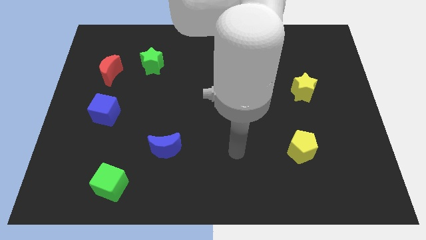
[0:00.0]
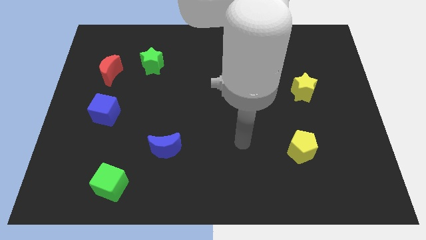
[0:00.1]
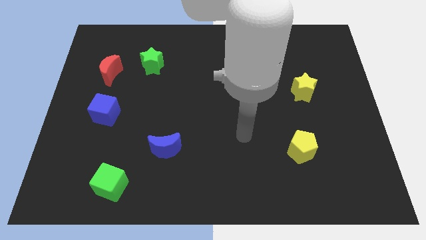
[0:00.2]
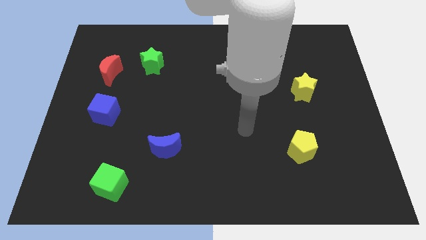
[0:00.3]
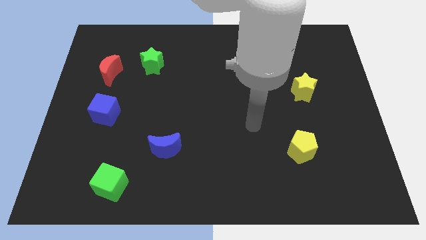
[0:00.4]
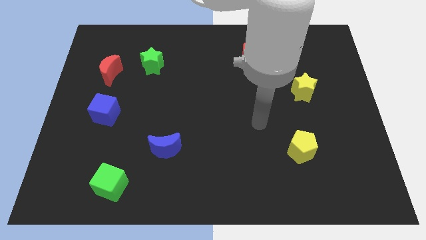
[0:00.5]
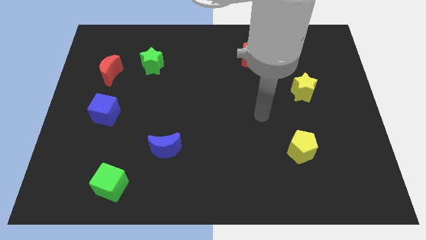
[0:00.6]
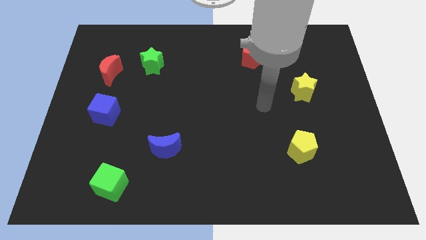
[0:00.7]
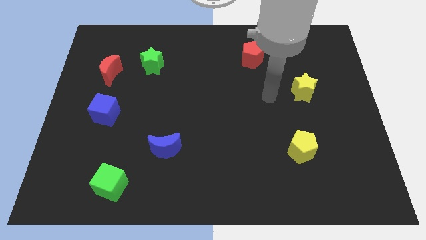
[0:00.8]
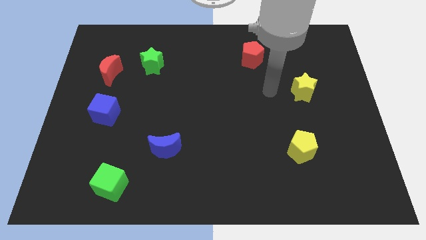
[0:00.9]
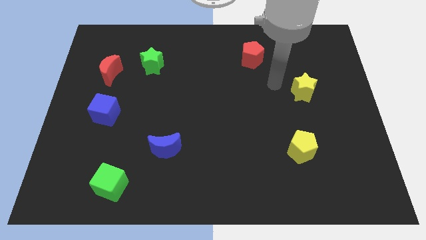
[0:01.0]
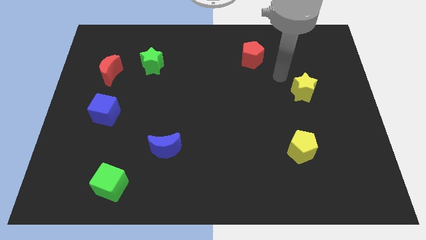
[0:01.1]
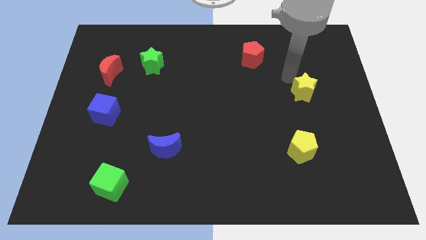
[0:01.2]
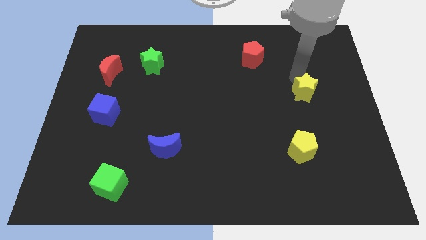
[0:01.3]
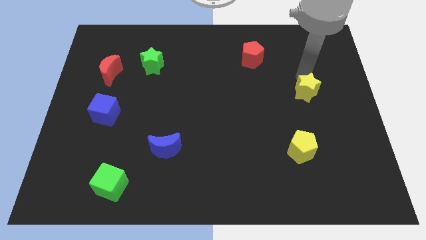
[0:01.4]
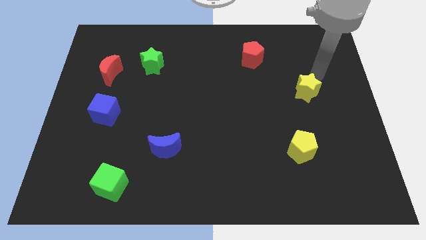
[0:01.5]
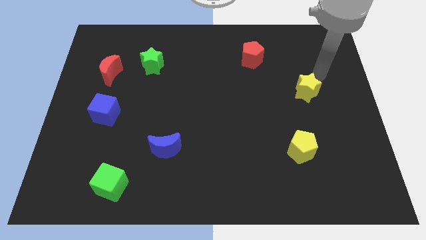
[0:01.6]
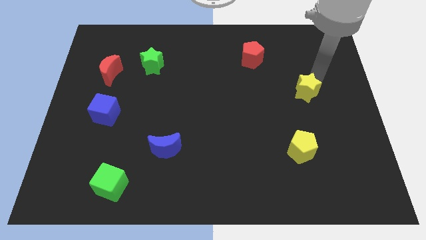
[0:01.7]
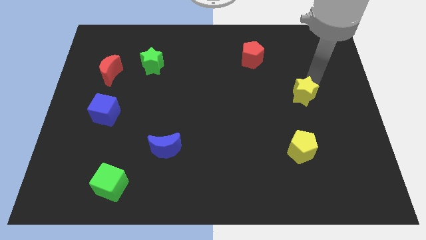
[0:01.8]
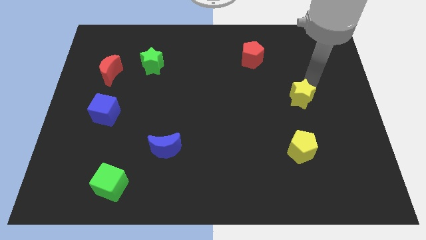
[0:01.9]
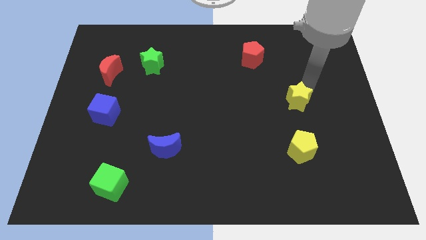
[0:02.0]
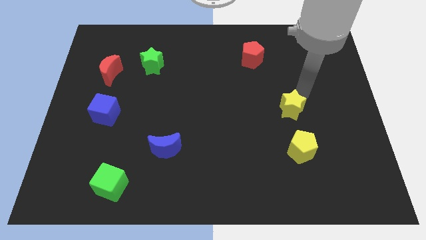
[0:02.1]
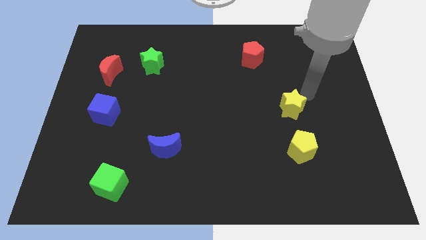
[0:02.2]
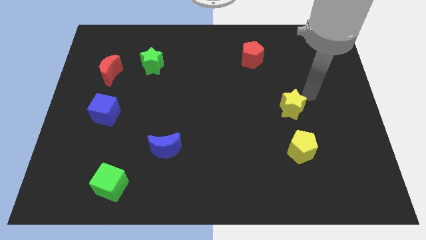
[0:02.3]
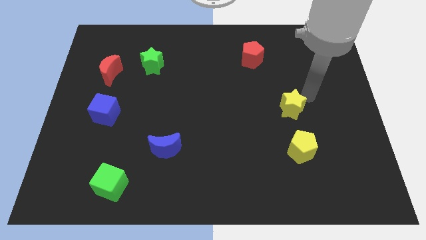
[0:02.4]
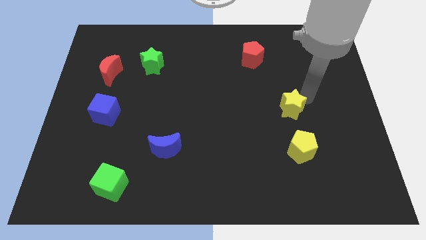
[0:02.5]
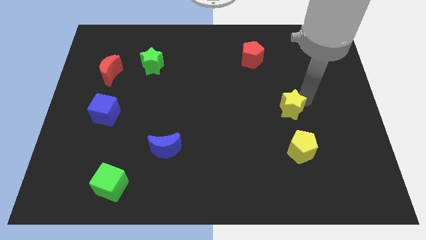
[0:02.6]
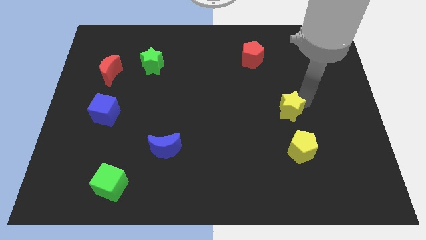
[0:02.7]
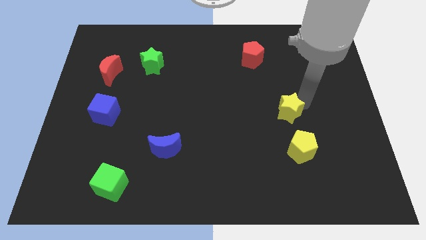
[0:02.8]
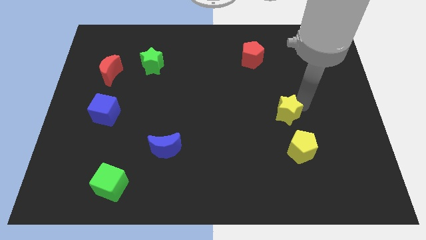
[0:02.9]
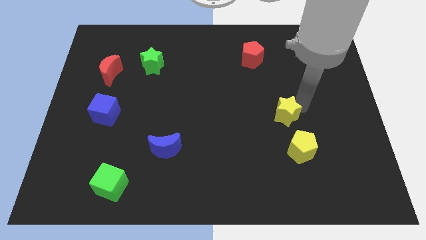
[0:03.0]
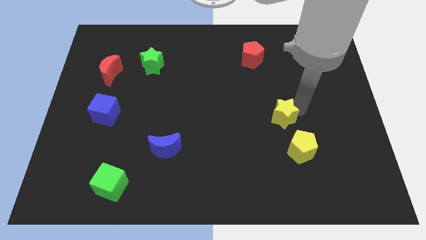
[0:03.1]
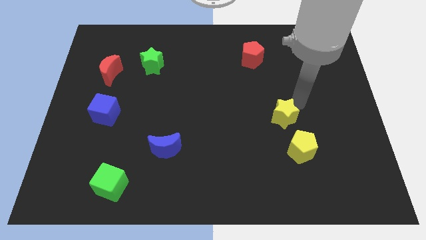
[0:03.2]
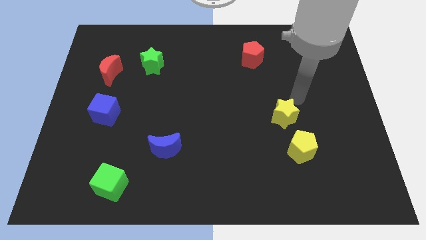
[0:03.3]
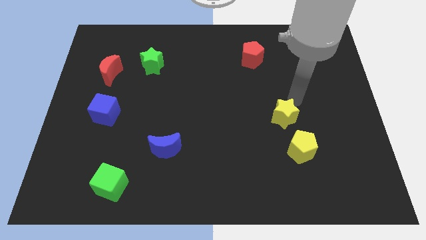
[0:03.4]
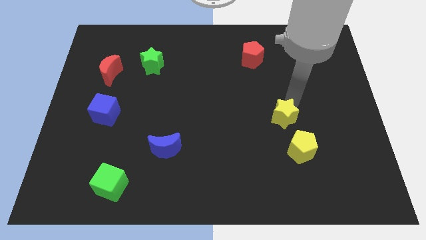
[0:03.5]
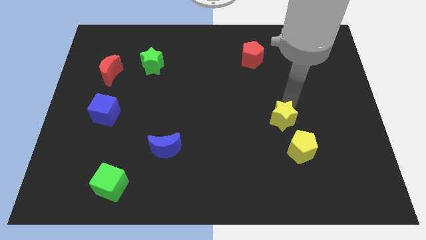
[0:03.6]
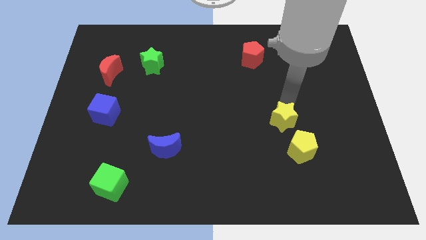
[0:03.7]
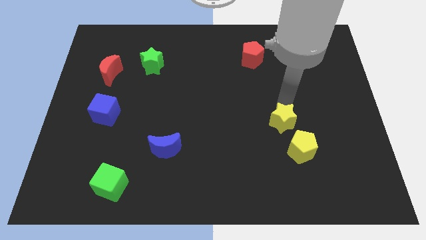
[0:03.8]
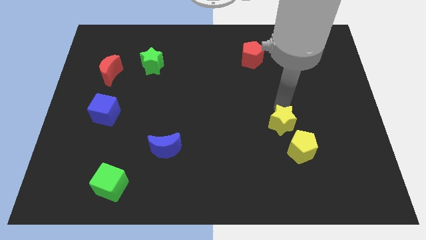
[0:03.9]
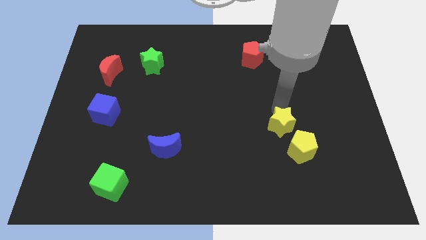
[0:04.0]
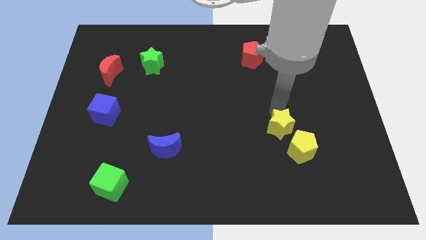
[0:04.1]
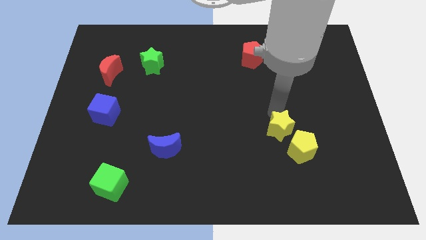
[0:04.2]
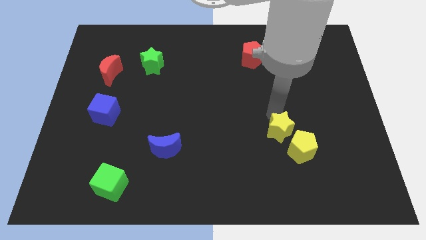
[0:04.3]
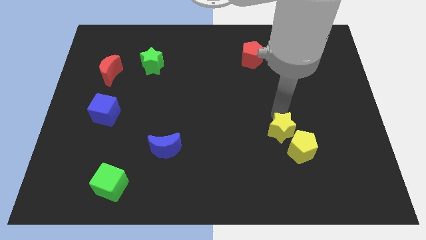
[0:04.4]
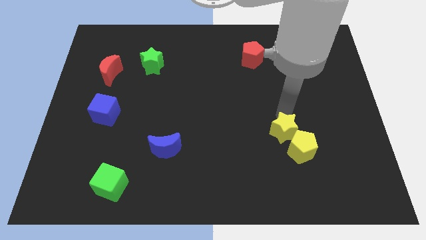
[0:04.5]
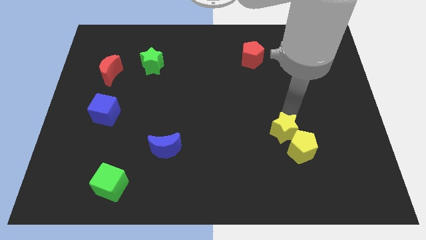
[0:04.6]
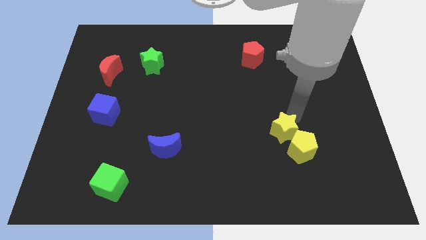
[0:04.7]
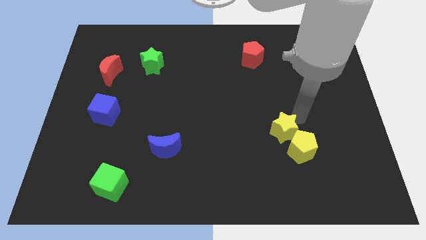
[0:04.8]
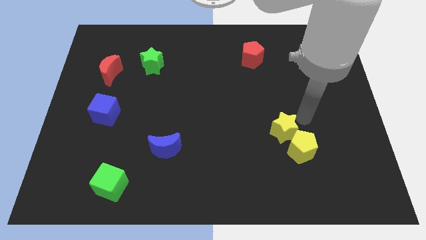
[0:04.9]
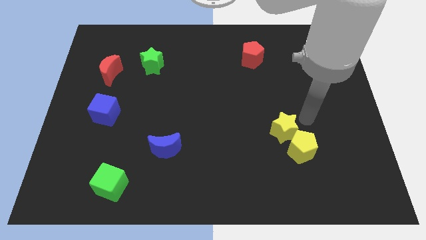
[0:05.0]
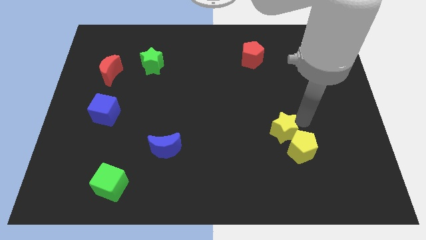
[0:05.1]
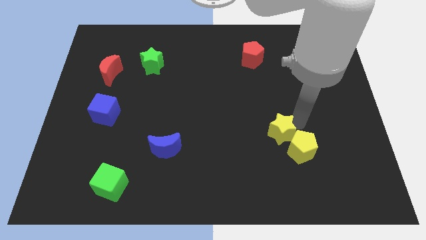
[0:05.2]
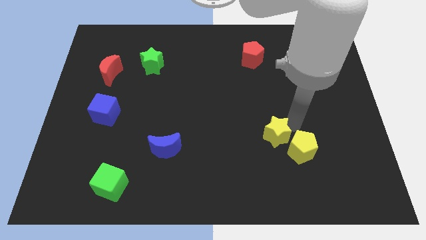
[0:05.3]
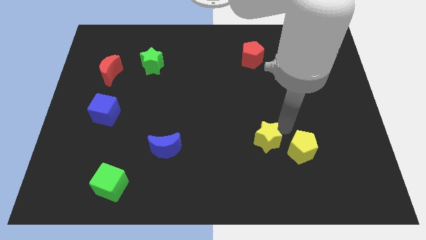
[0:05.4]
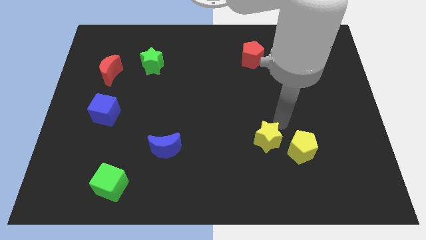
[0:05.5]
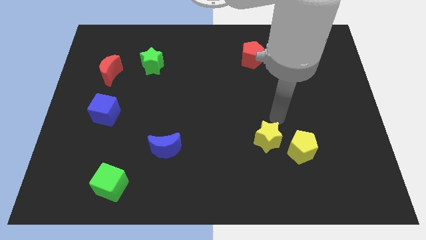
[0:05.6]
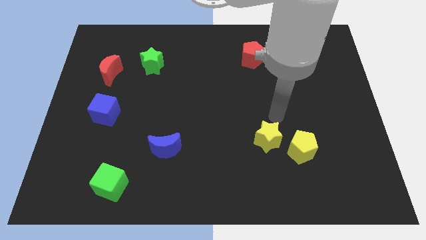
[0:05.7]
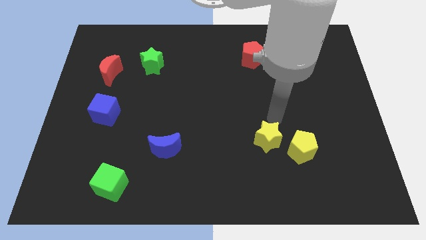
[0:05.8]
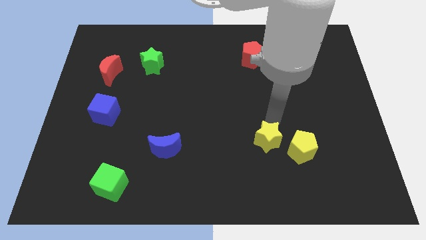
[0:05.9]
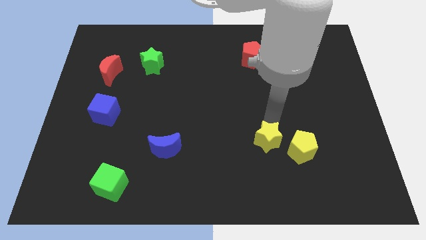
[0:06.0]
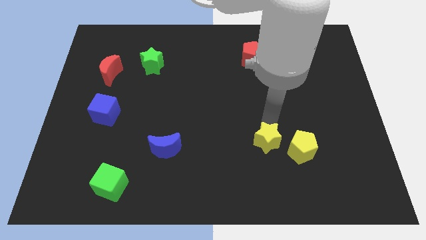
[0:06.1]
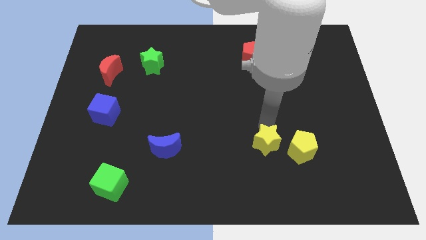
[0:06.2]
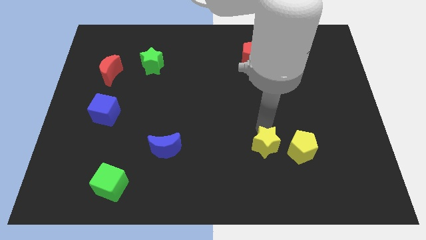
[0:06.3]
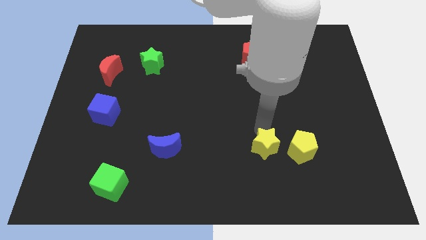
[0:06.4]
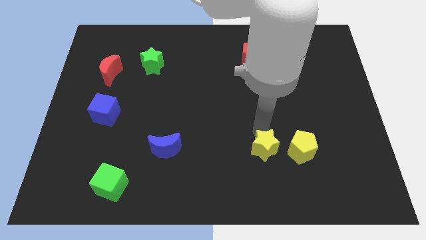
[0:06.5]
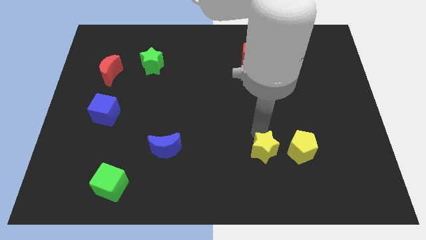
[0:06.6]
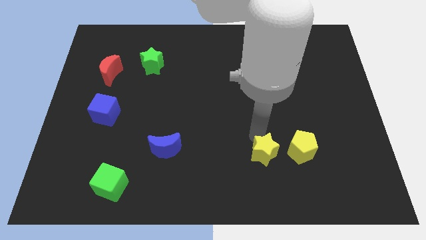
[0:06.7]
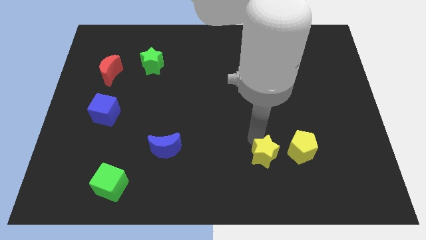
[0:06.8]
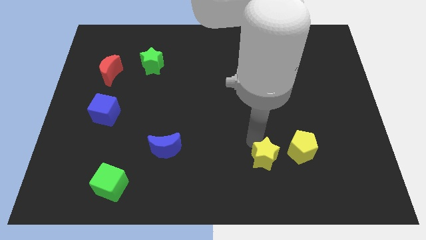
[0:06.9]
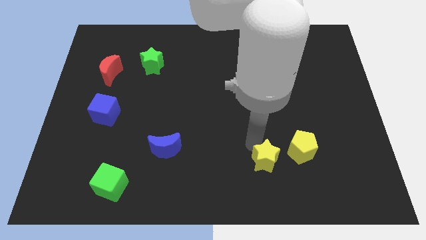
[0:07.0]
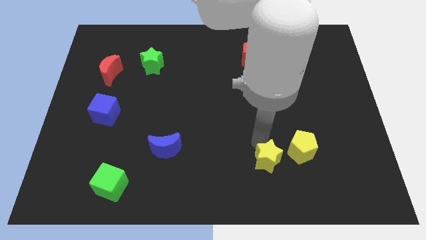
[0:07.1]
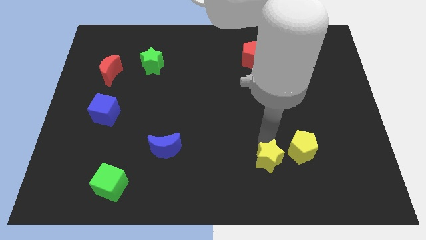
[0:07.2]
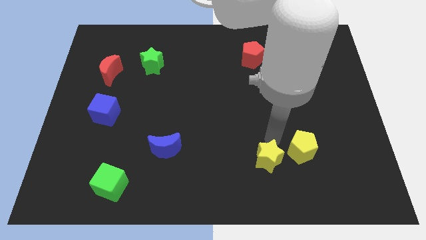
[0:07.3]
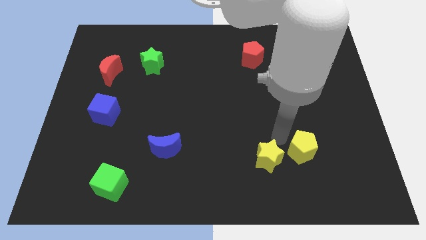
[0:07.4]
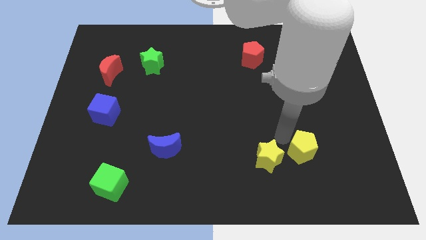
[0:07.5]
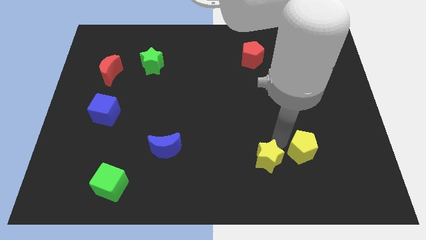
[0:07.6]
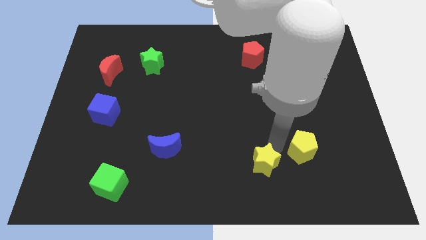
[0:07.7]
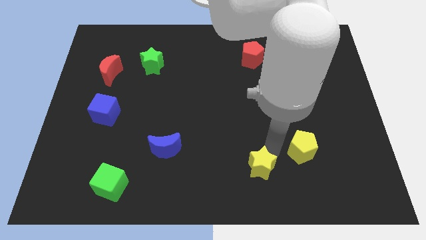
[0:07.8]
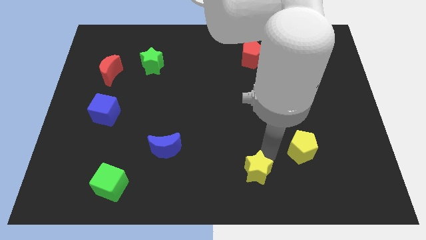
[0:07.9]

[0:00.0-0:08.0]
move the yellow star to the bottom
